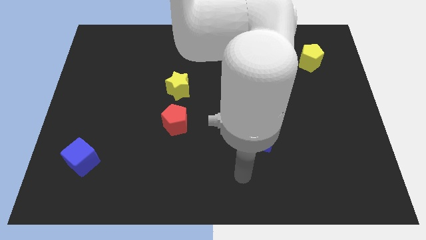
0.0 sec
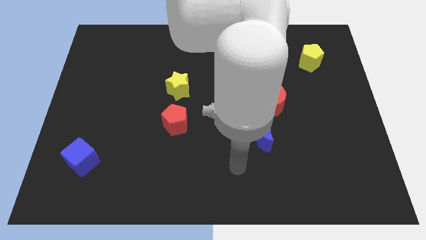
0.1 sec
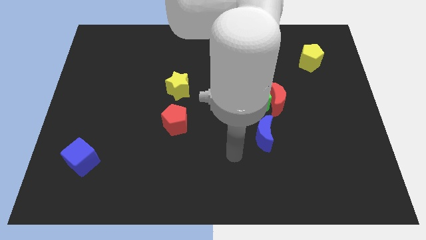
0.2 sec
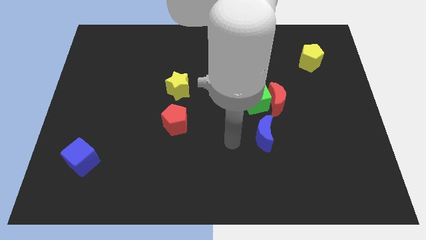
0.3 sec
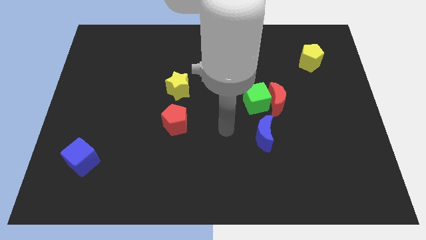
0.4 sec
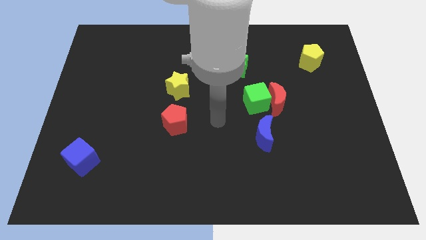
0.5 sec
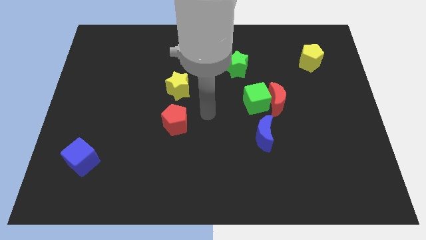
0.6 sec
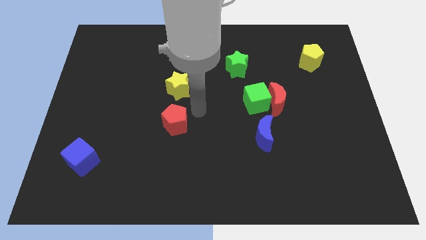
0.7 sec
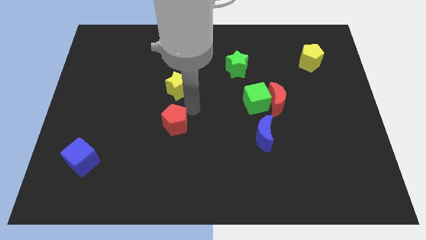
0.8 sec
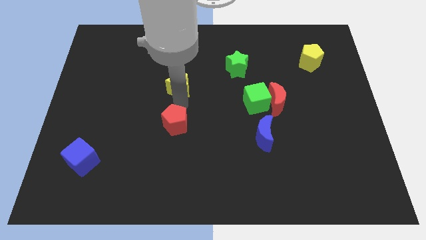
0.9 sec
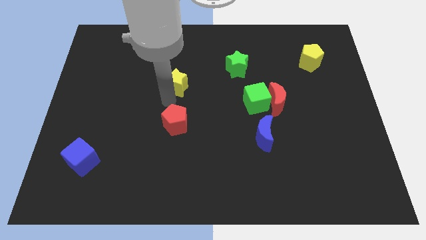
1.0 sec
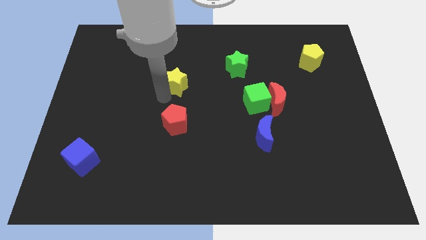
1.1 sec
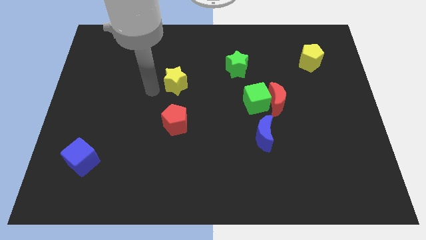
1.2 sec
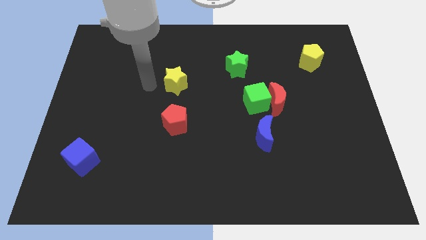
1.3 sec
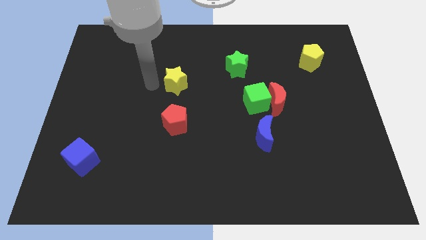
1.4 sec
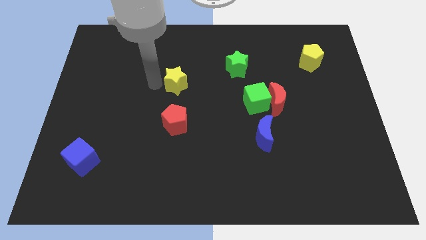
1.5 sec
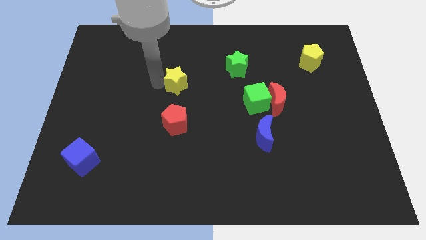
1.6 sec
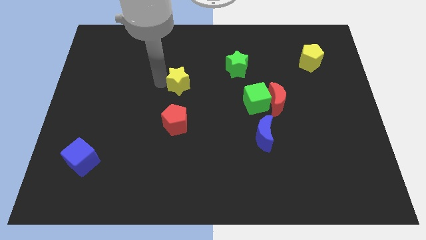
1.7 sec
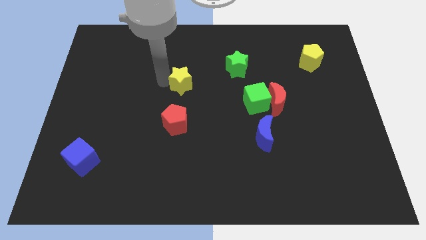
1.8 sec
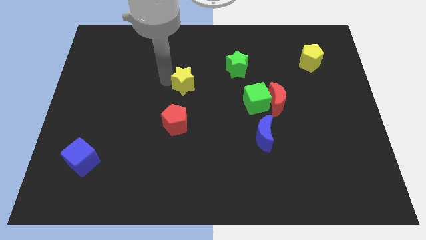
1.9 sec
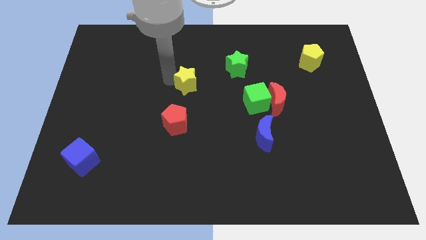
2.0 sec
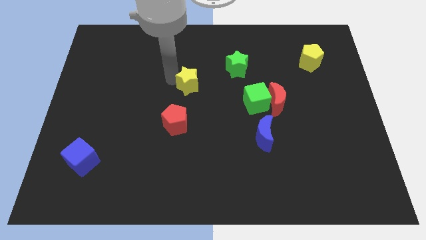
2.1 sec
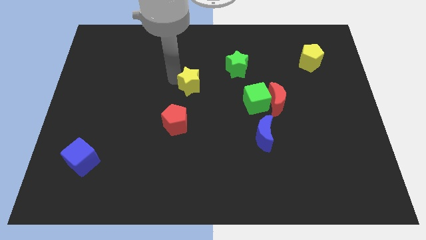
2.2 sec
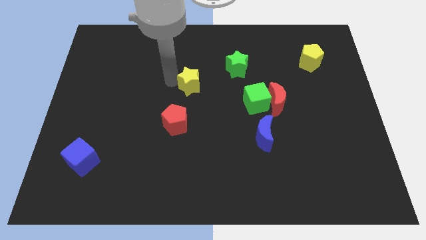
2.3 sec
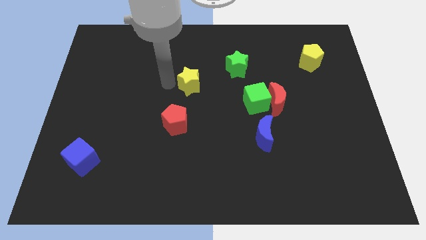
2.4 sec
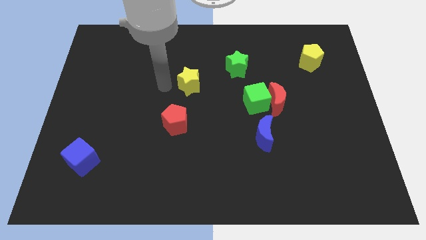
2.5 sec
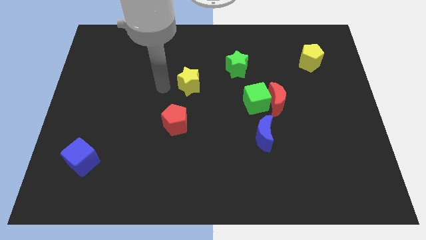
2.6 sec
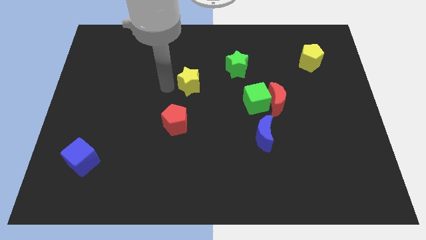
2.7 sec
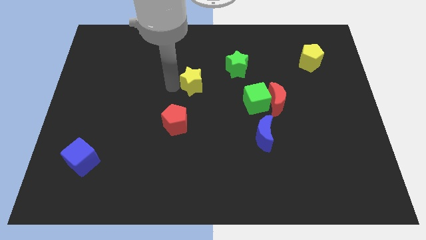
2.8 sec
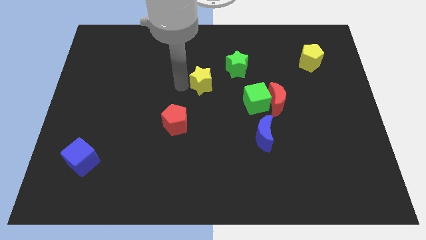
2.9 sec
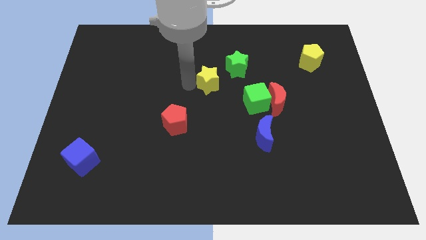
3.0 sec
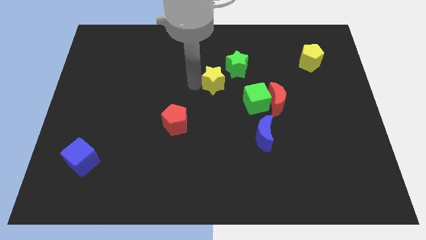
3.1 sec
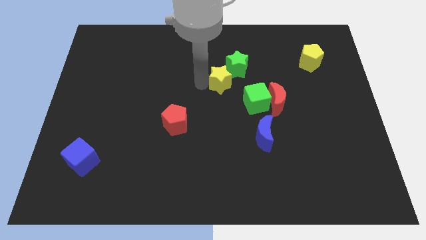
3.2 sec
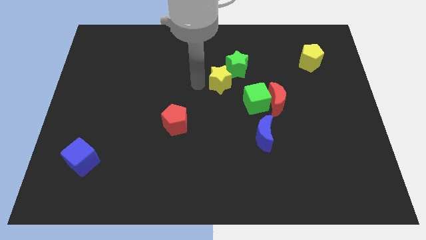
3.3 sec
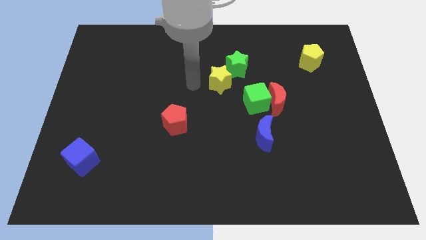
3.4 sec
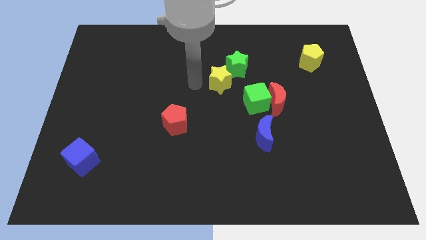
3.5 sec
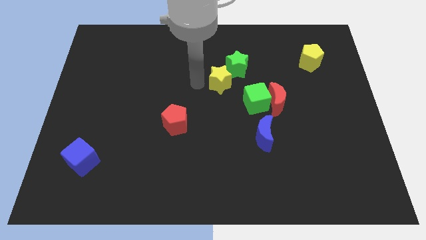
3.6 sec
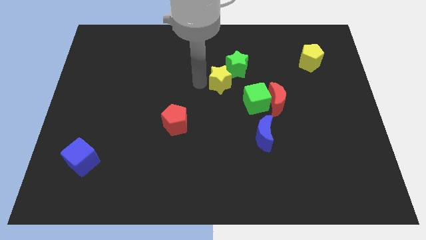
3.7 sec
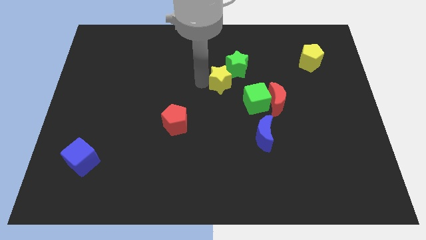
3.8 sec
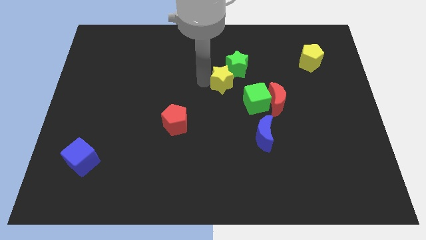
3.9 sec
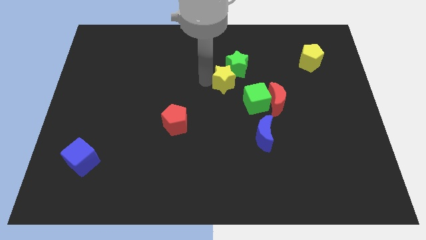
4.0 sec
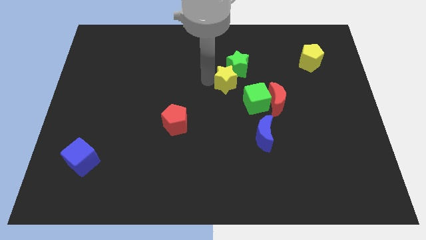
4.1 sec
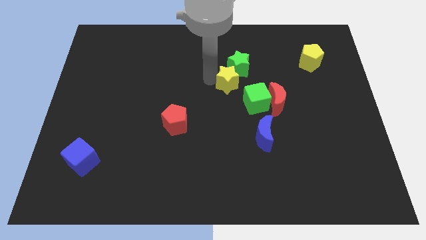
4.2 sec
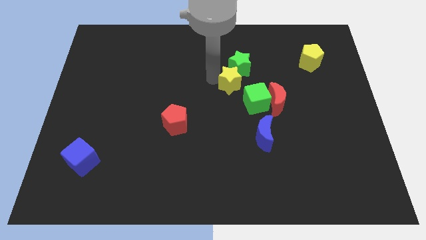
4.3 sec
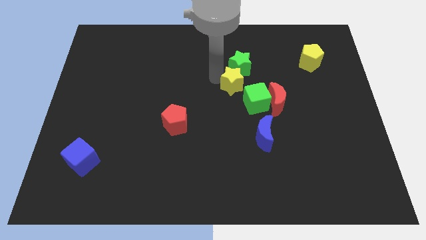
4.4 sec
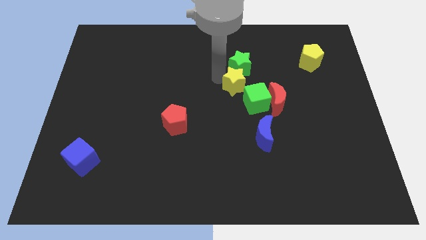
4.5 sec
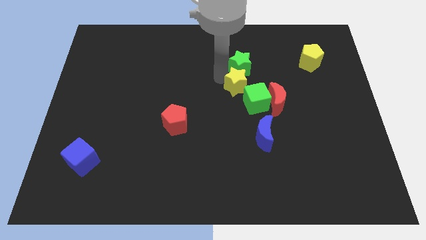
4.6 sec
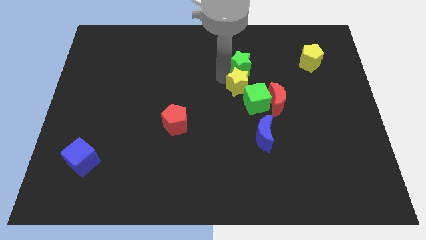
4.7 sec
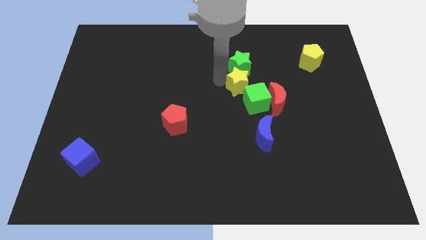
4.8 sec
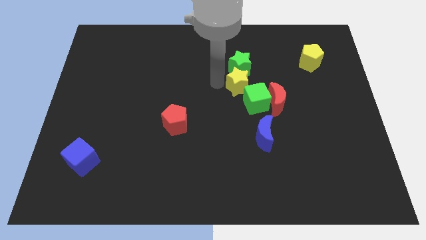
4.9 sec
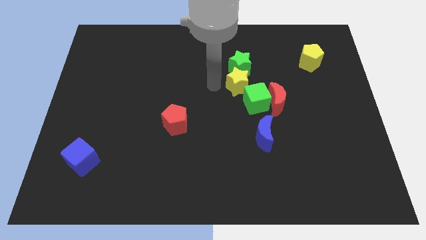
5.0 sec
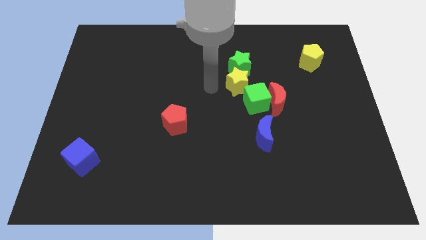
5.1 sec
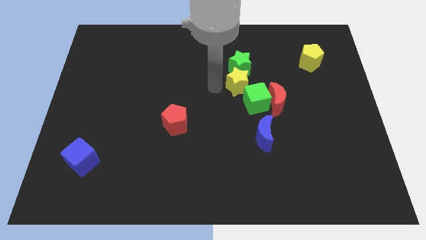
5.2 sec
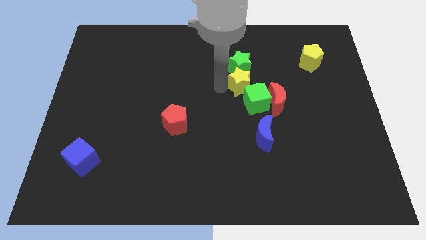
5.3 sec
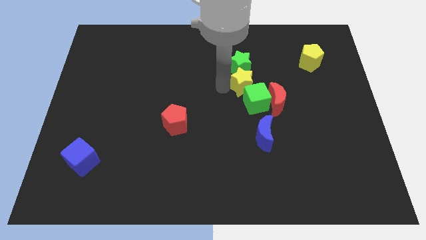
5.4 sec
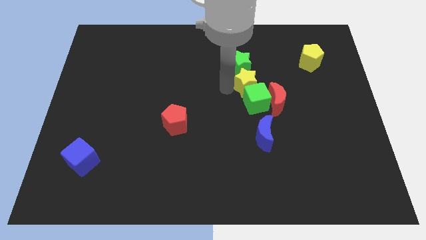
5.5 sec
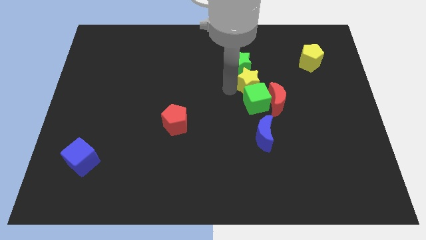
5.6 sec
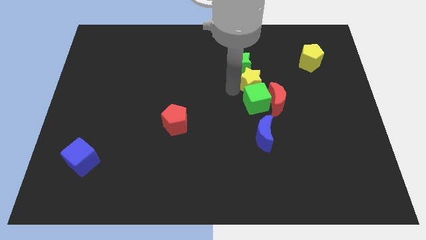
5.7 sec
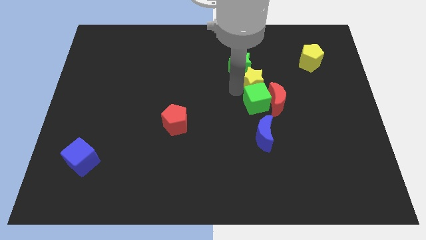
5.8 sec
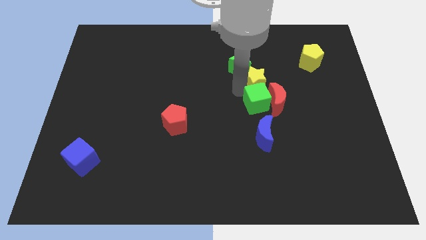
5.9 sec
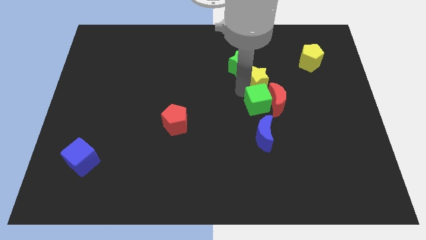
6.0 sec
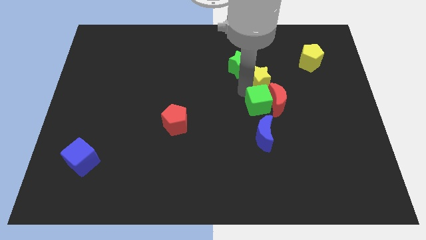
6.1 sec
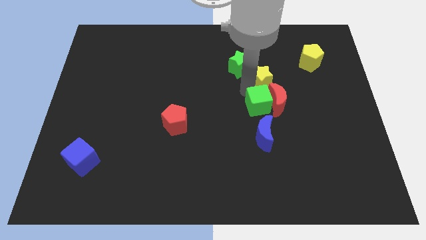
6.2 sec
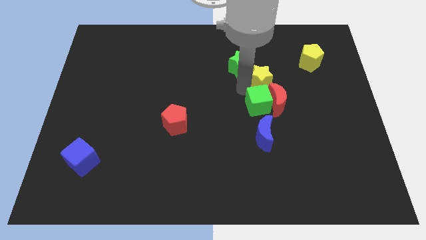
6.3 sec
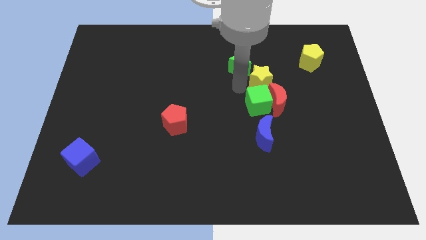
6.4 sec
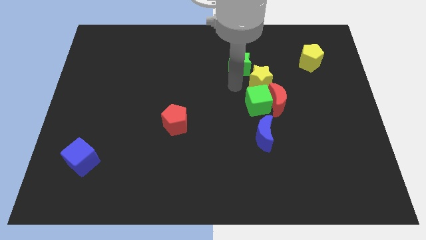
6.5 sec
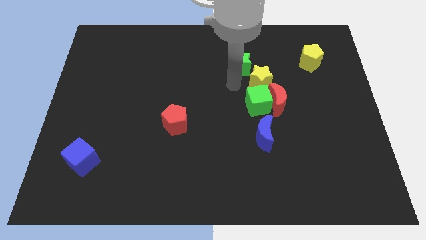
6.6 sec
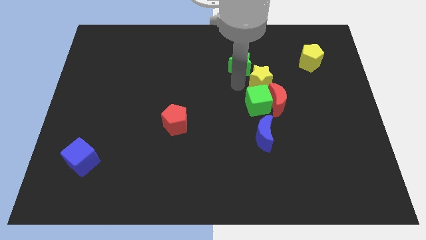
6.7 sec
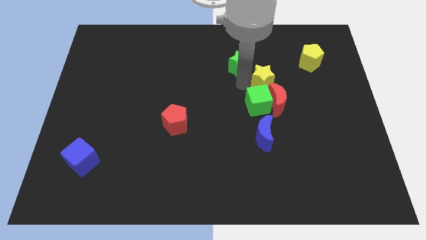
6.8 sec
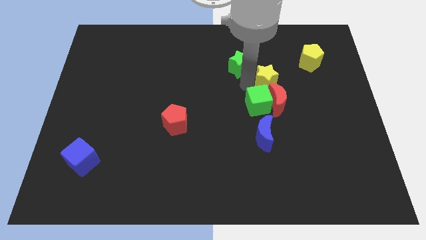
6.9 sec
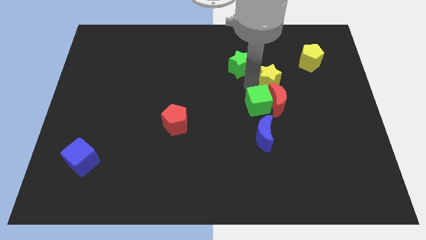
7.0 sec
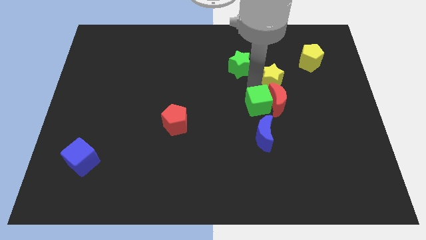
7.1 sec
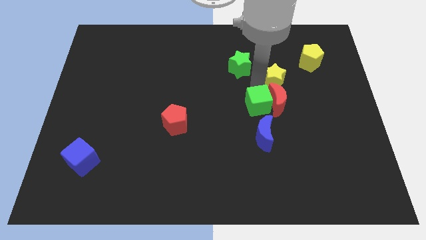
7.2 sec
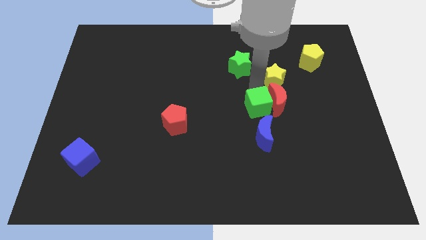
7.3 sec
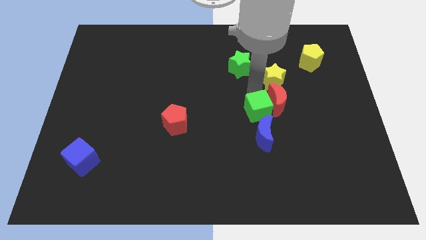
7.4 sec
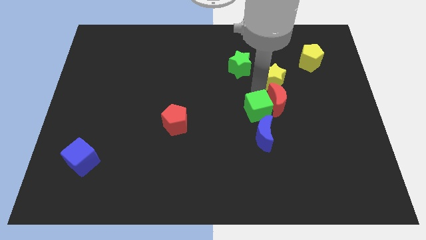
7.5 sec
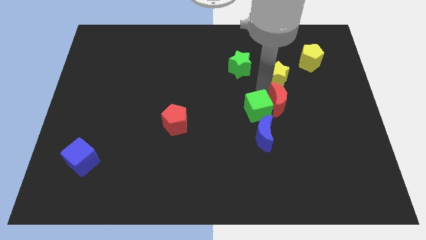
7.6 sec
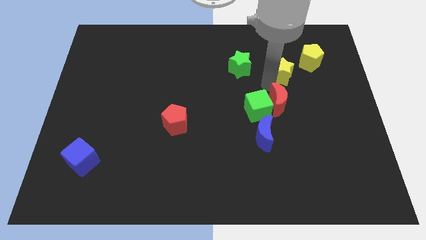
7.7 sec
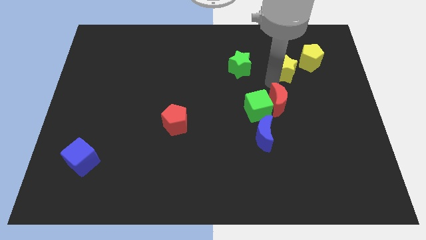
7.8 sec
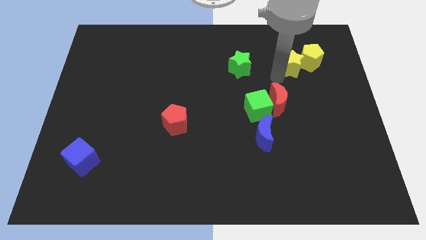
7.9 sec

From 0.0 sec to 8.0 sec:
move the yellow star to the yellow pentagon

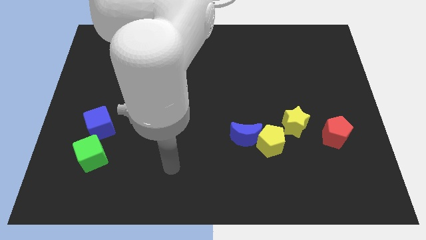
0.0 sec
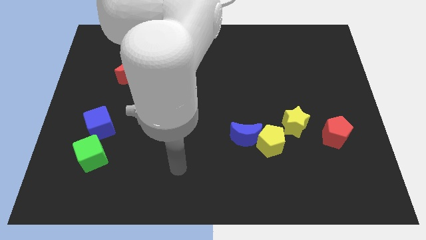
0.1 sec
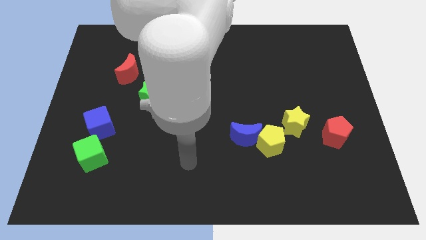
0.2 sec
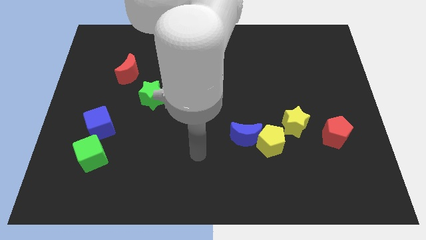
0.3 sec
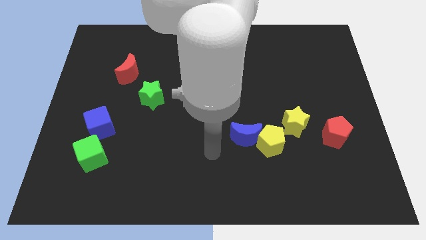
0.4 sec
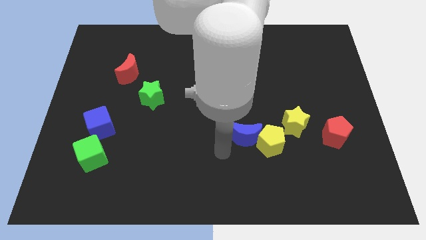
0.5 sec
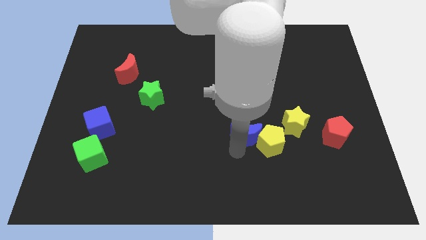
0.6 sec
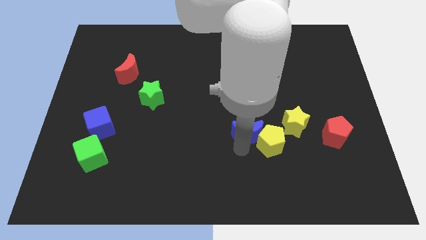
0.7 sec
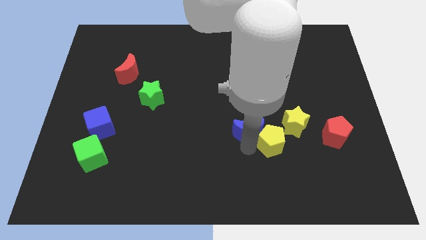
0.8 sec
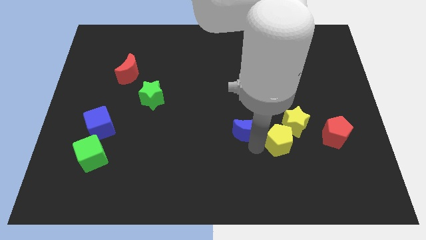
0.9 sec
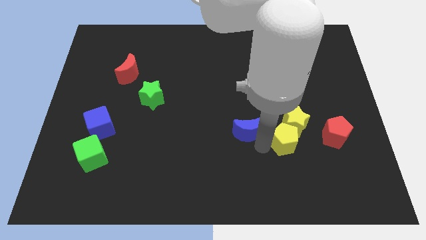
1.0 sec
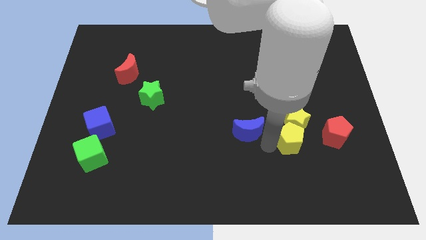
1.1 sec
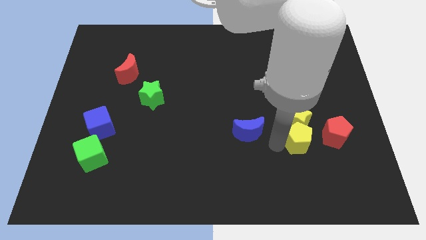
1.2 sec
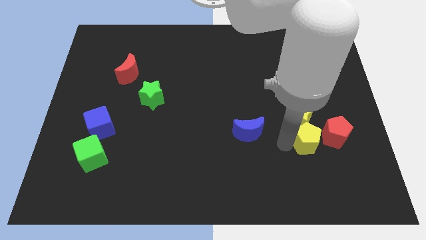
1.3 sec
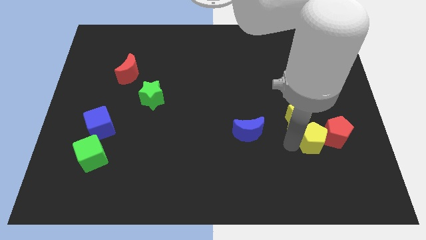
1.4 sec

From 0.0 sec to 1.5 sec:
put the yellow pentagon towards the red pentagon
